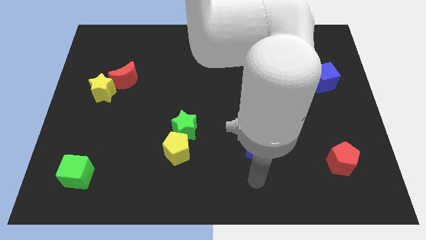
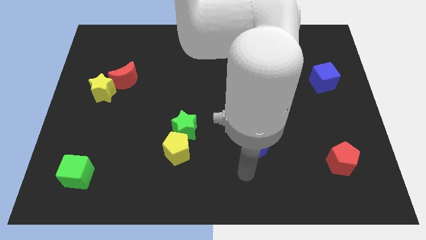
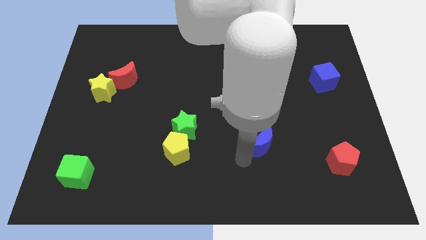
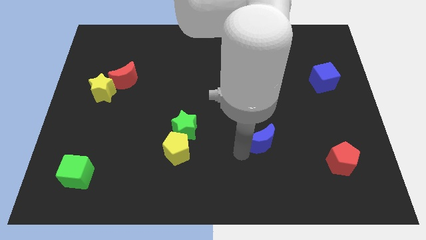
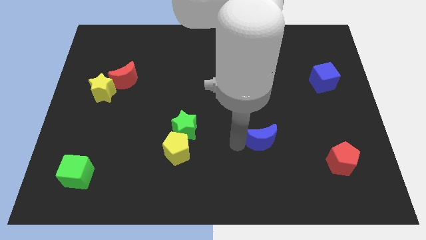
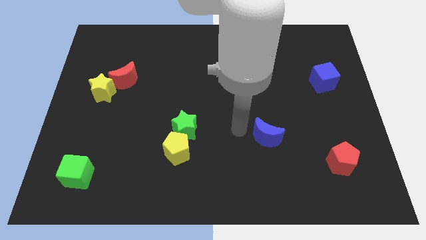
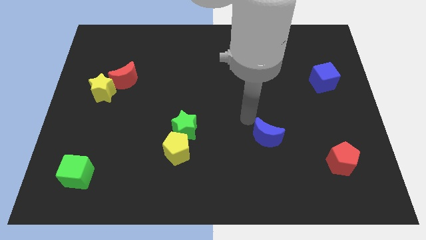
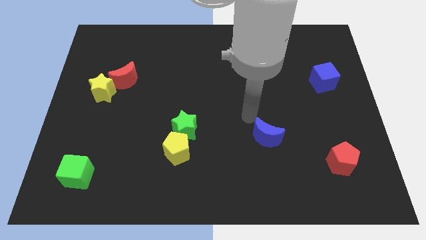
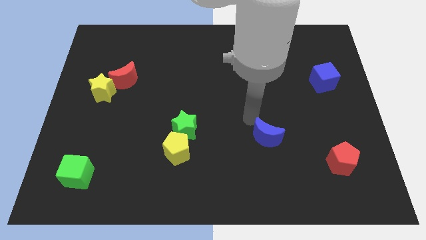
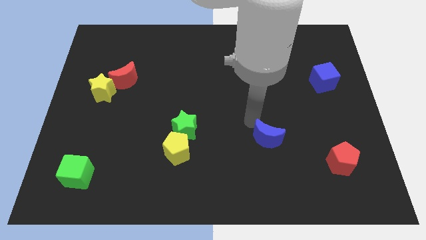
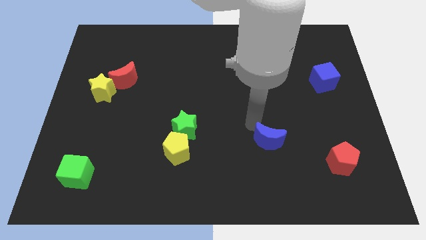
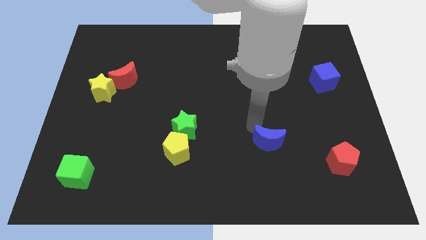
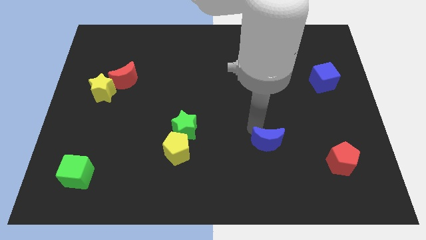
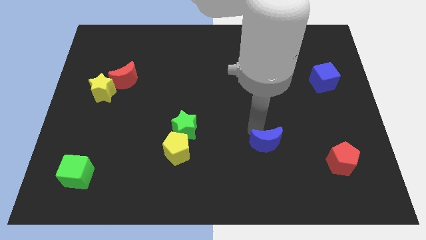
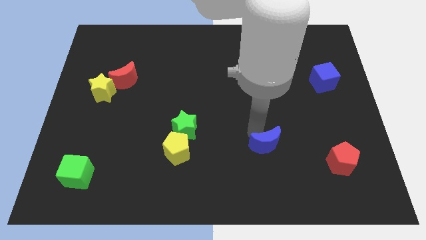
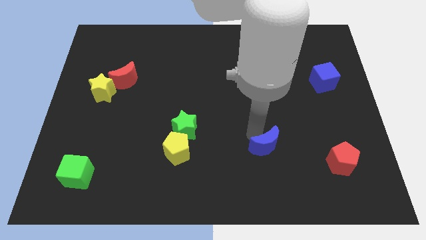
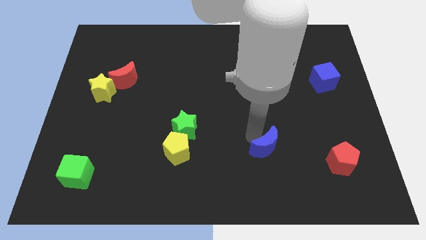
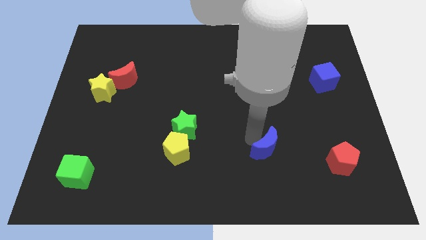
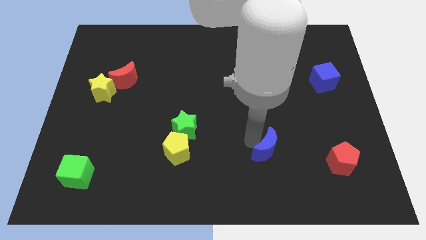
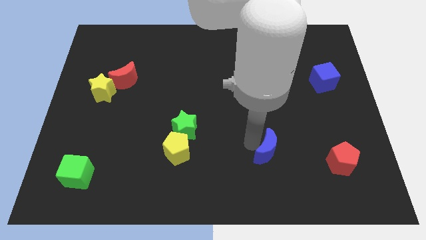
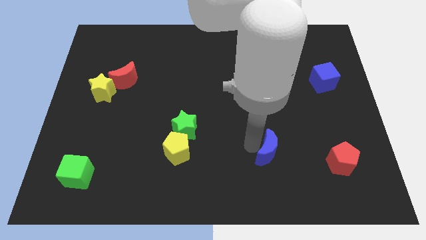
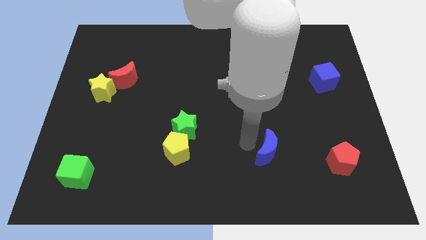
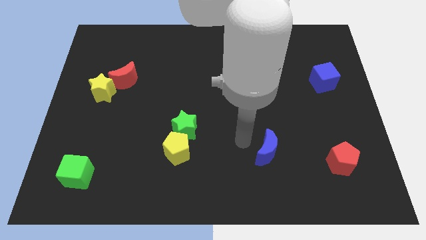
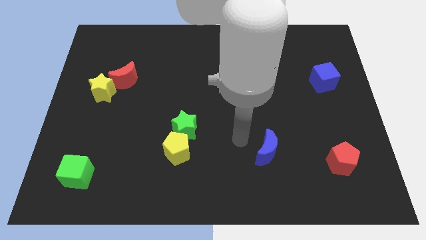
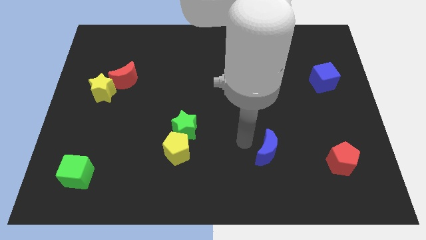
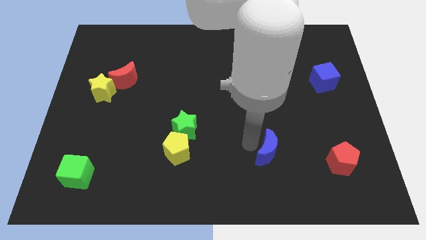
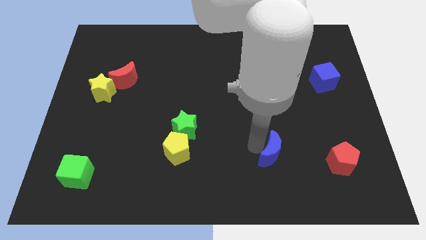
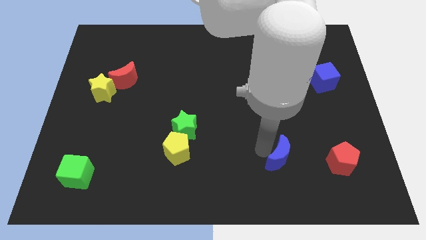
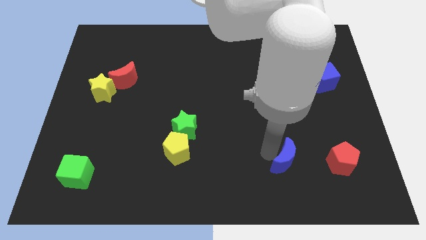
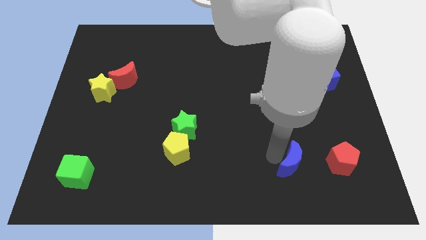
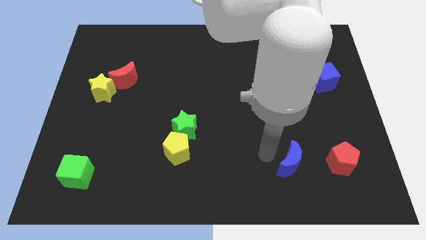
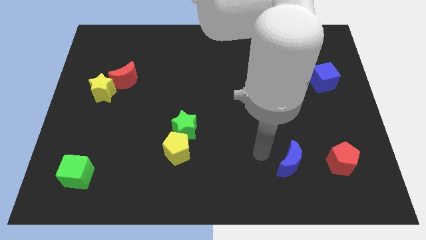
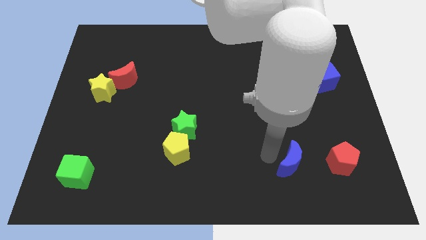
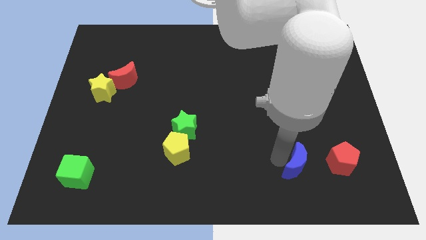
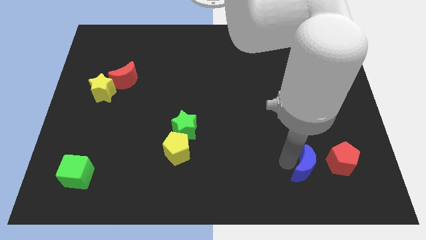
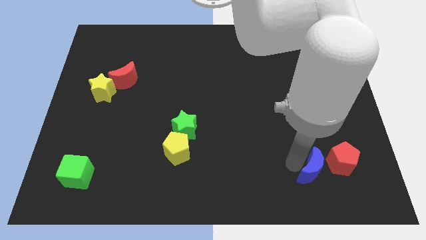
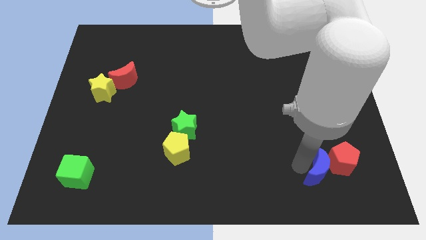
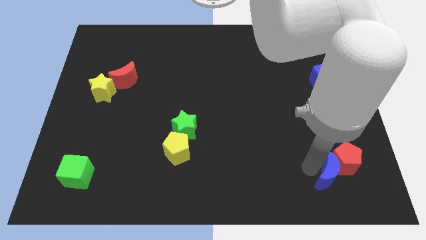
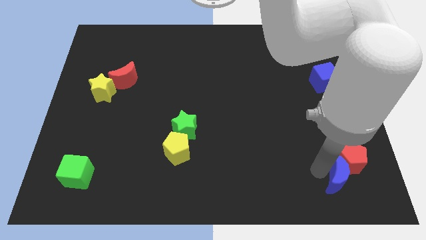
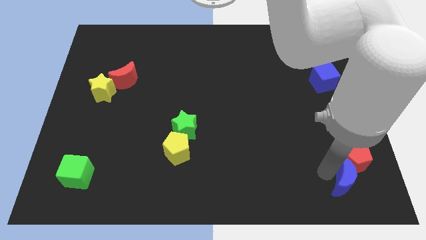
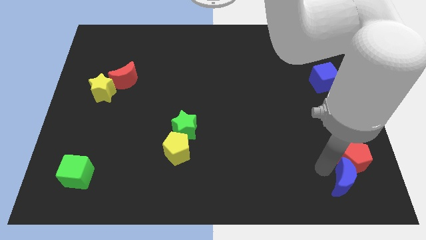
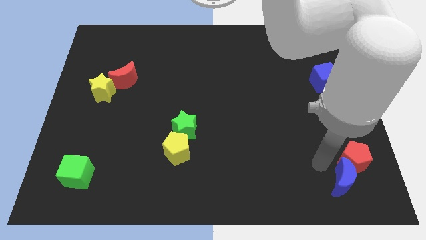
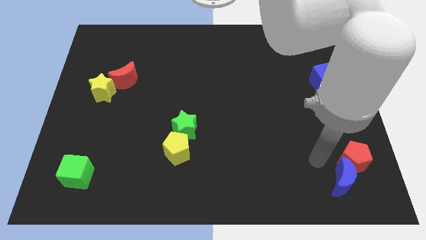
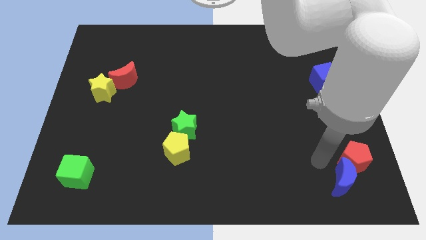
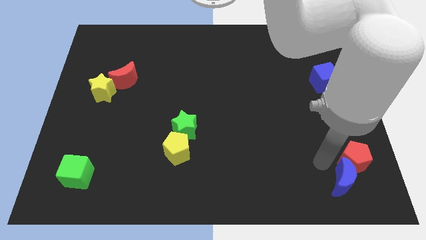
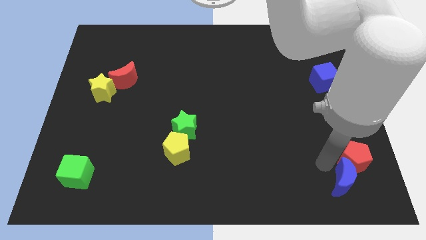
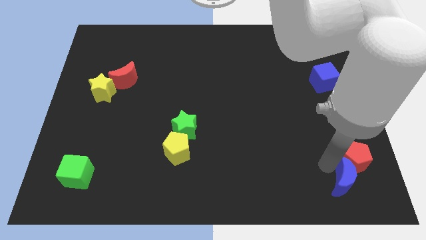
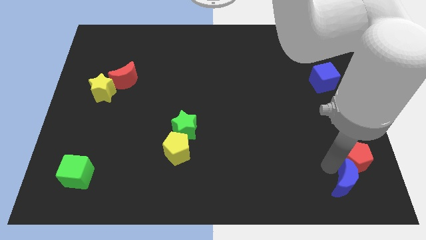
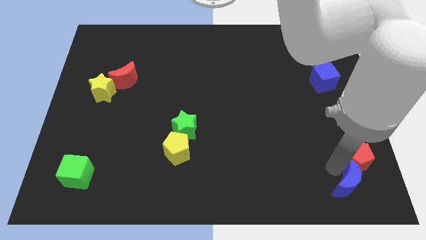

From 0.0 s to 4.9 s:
move the blue moon to the bottom right corner

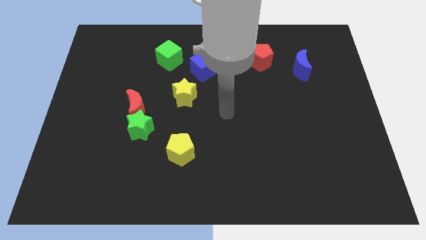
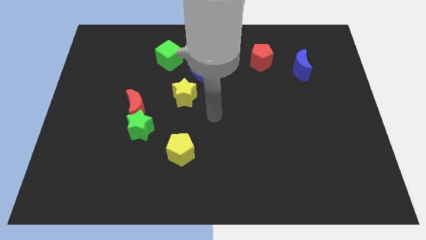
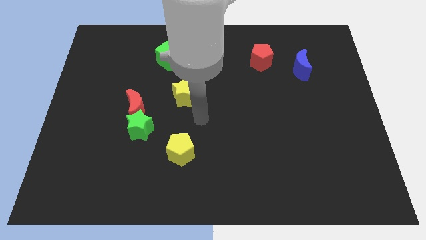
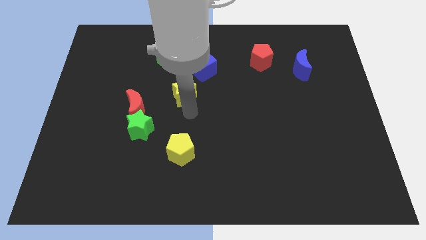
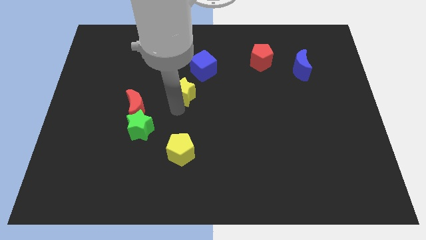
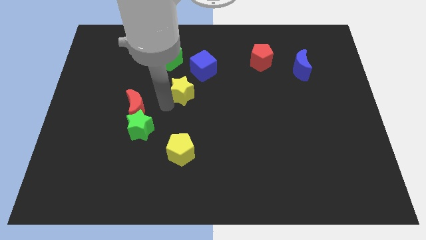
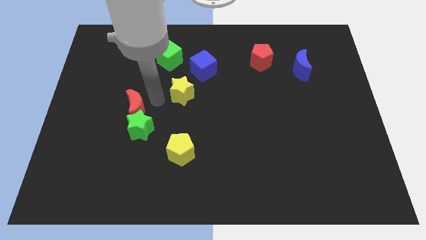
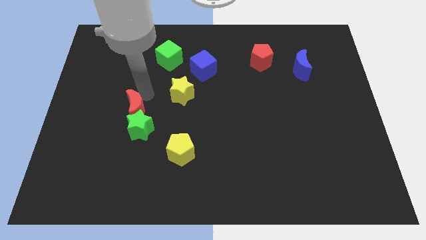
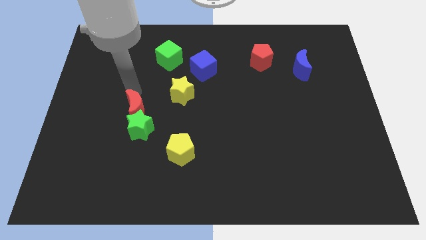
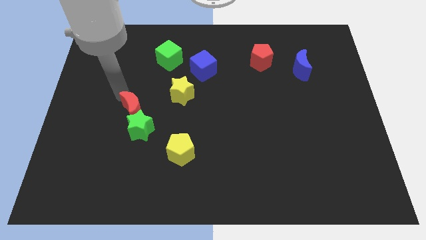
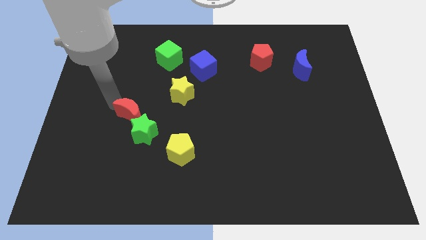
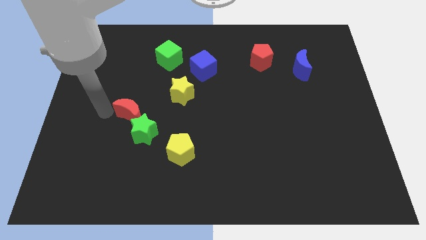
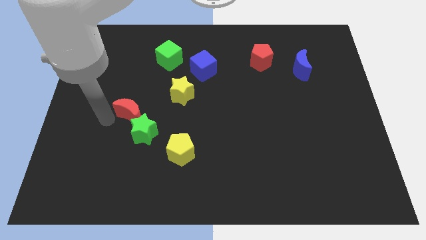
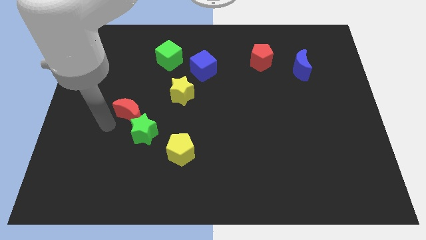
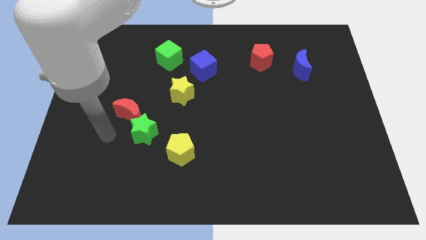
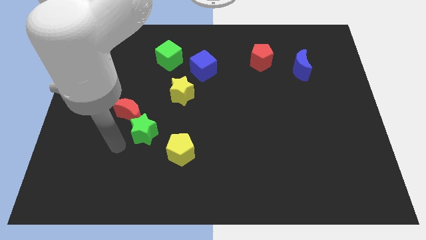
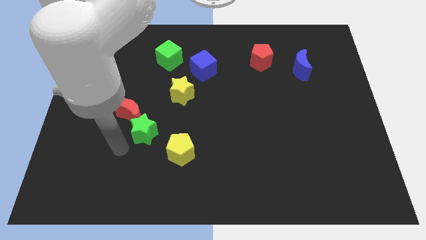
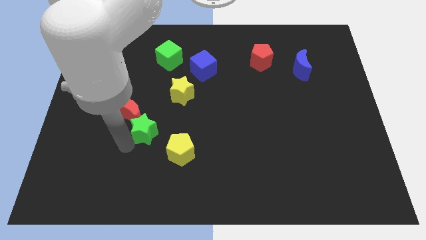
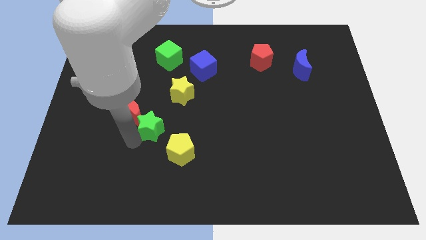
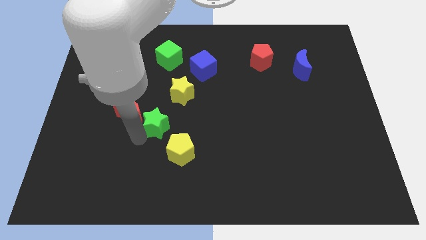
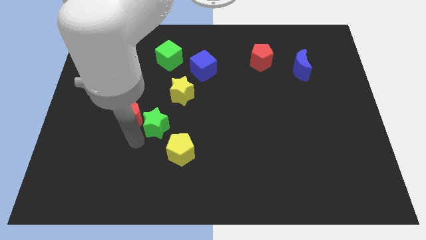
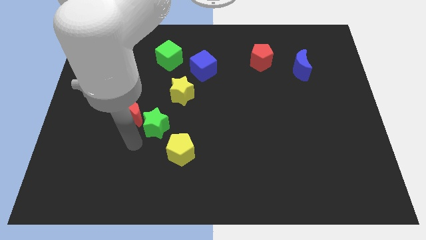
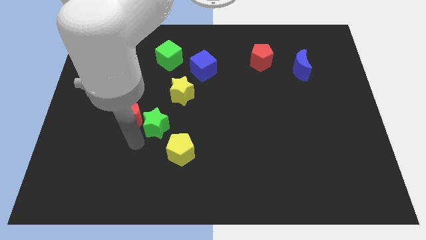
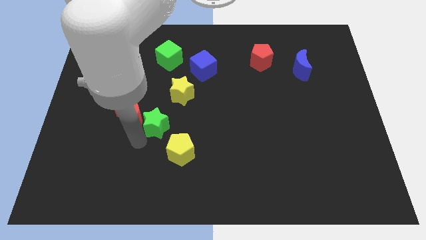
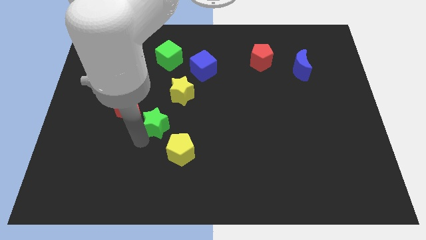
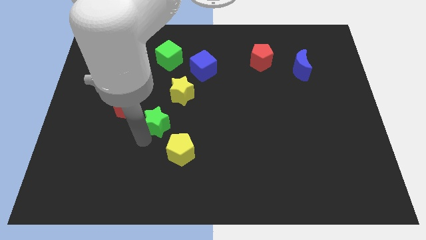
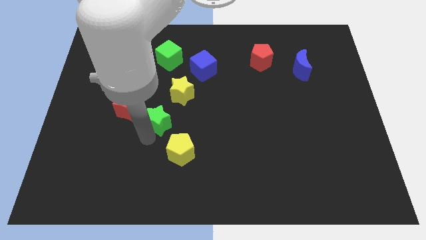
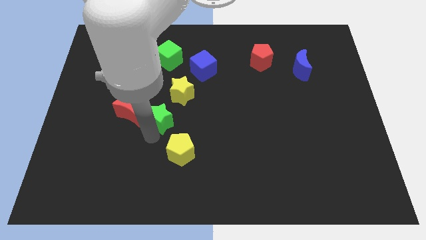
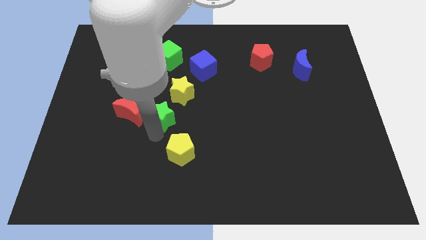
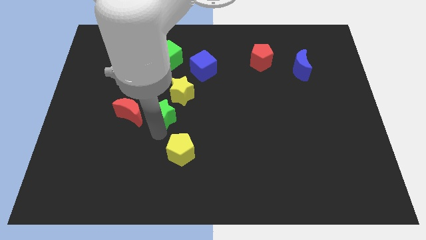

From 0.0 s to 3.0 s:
push the green star to the center of the board
